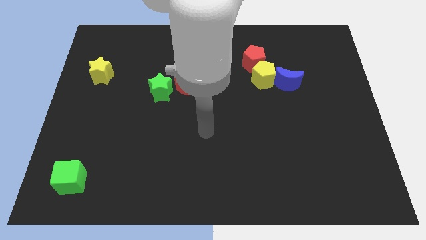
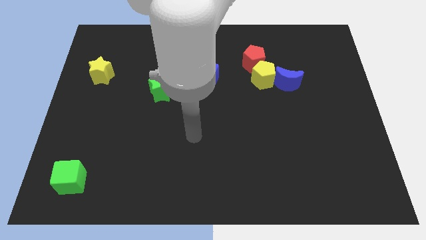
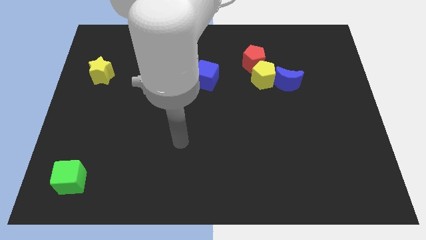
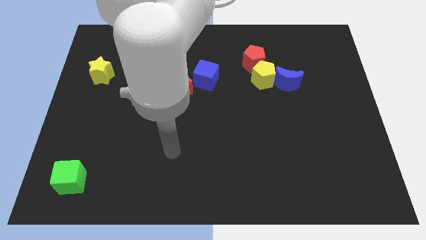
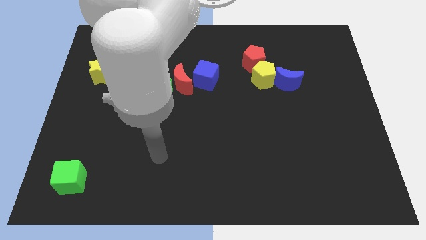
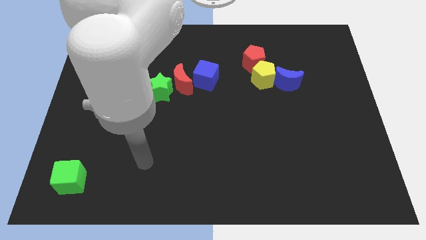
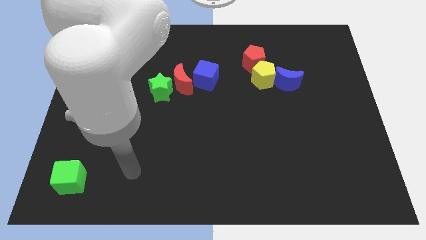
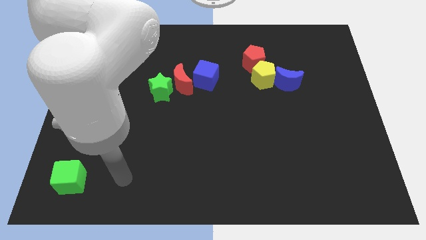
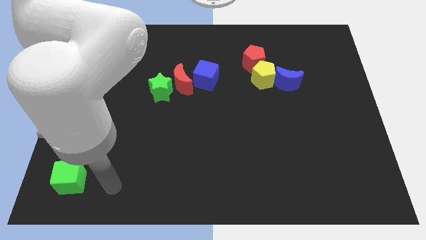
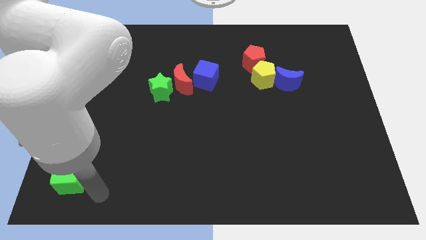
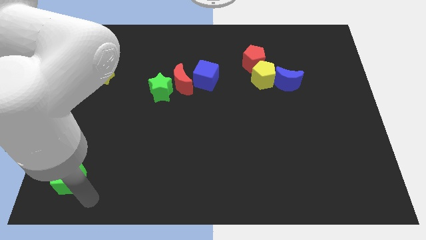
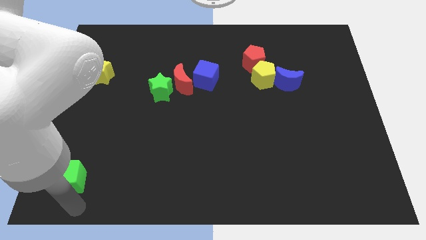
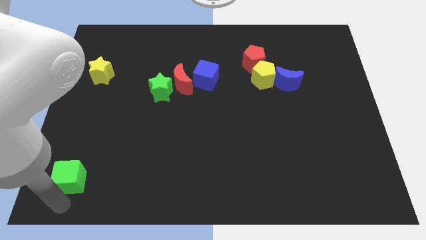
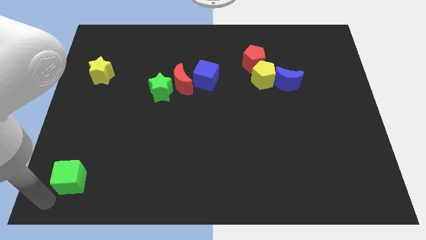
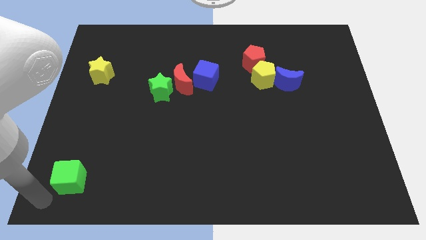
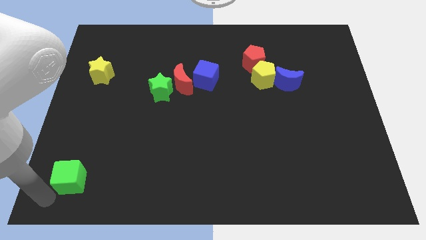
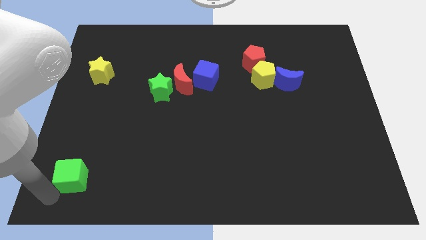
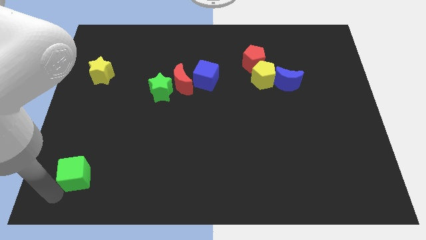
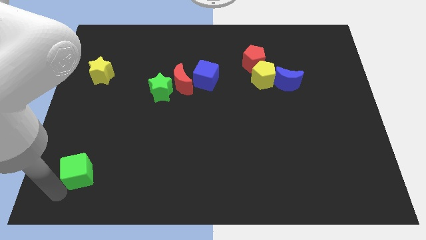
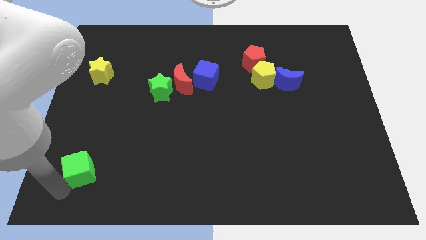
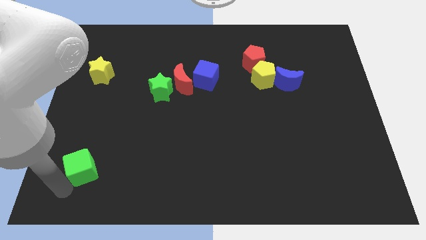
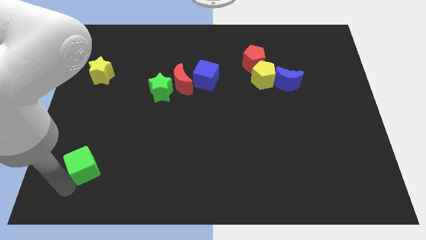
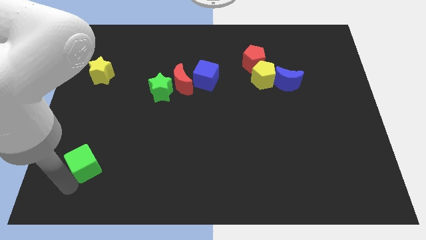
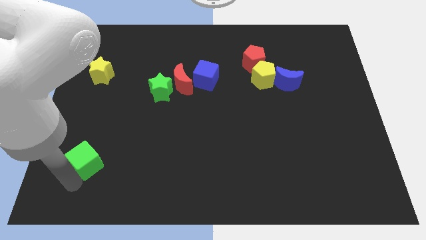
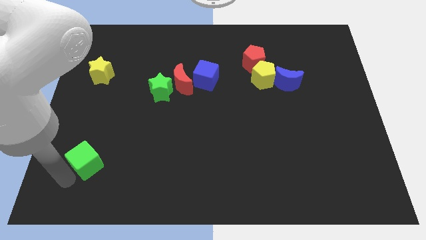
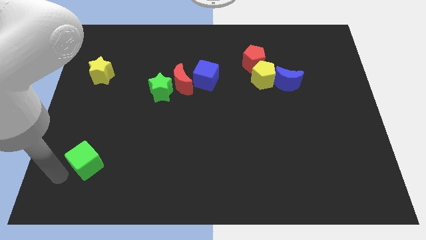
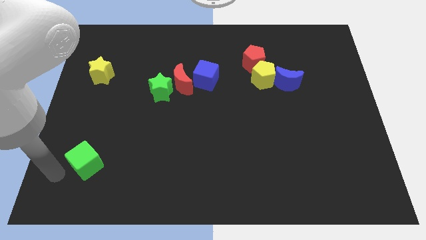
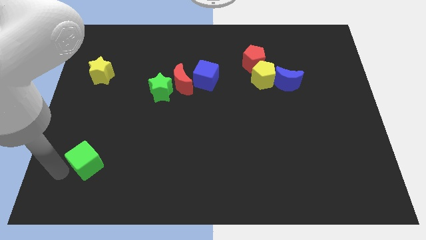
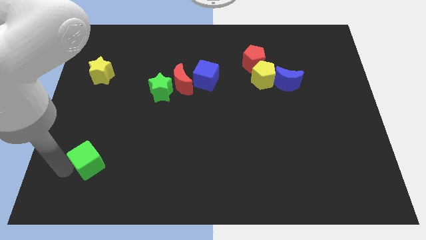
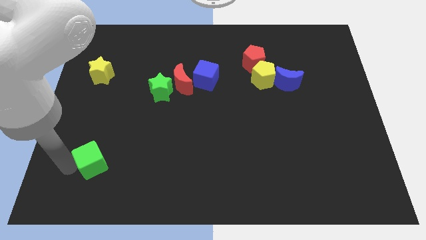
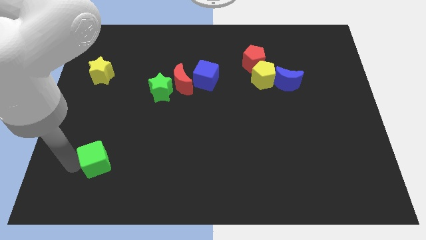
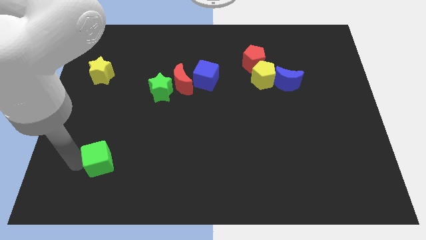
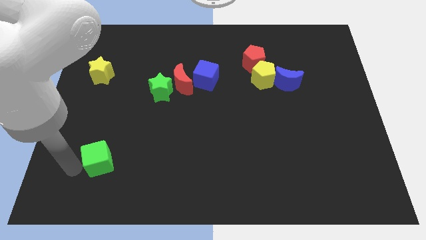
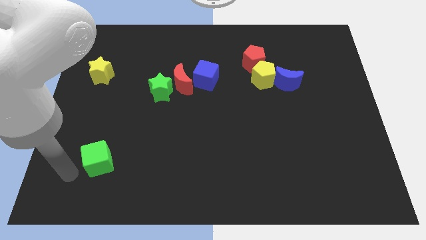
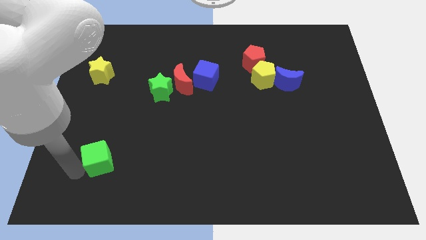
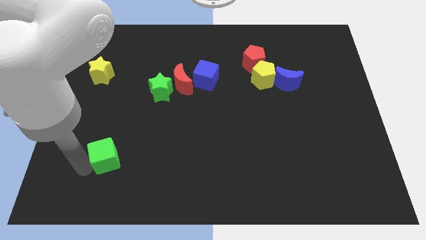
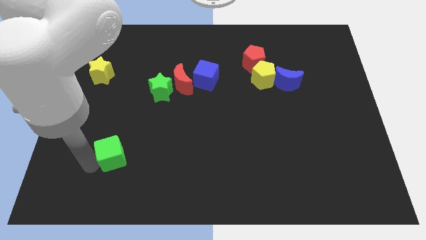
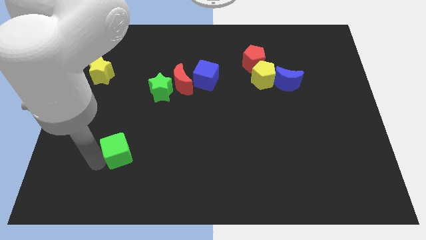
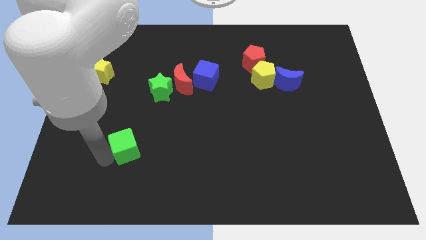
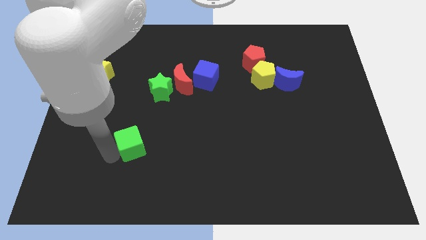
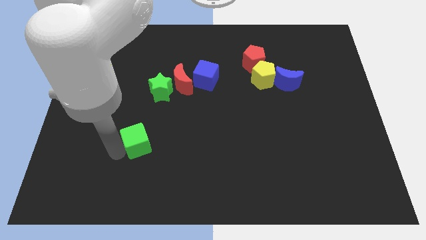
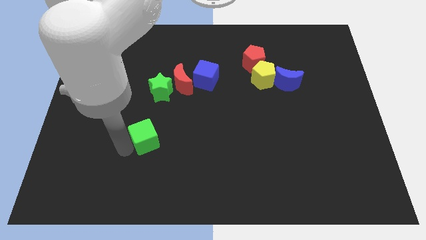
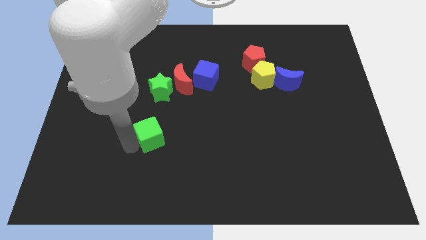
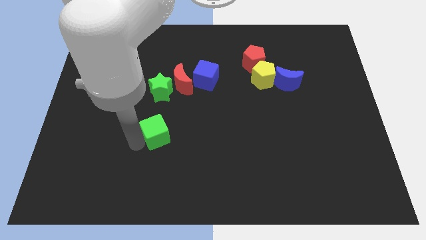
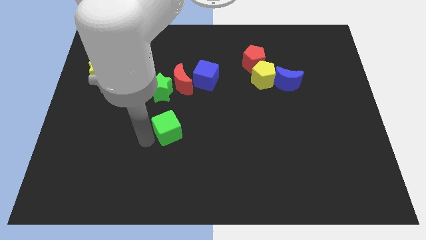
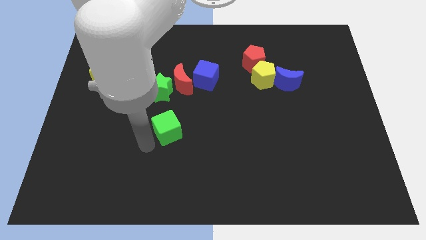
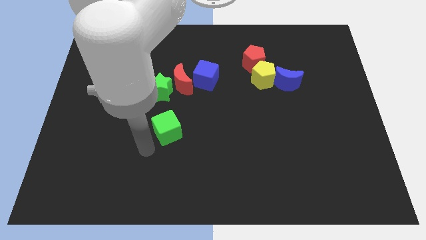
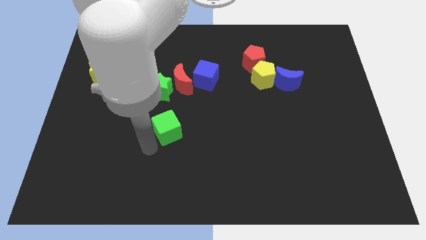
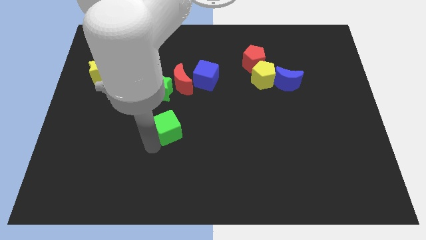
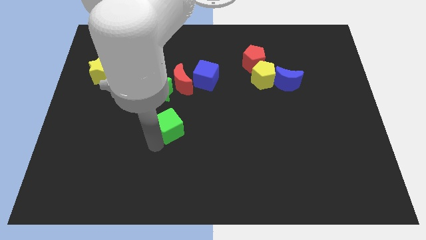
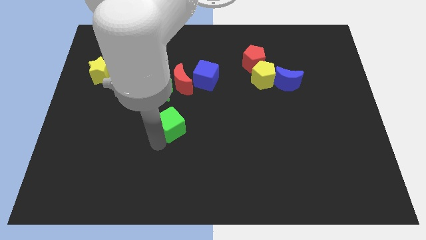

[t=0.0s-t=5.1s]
move the green cube to the center

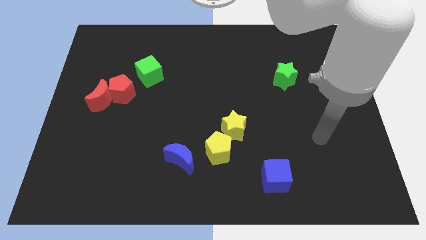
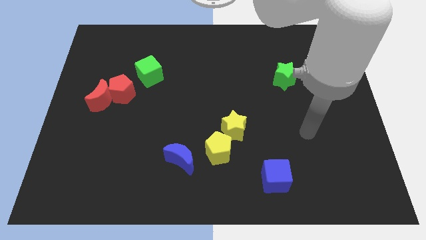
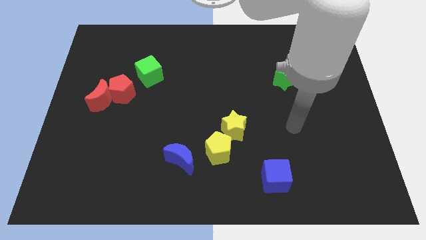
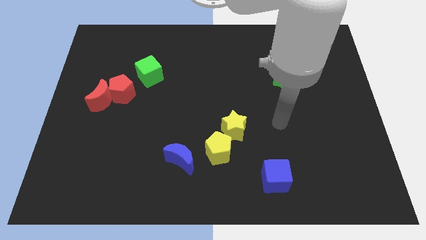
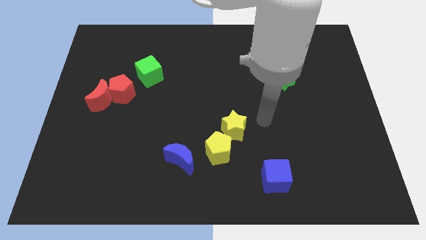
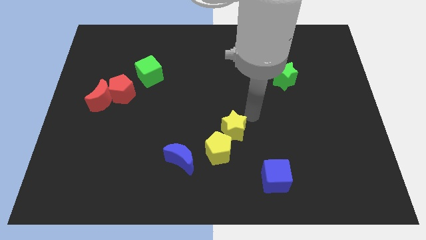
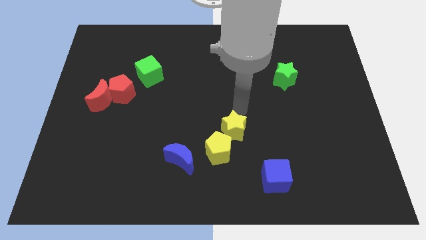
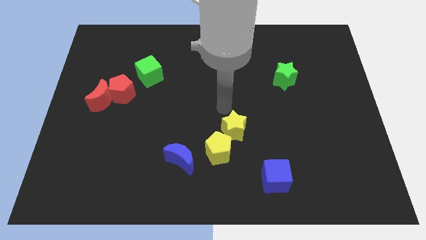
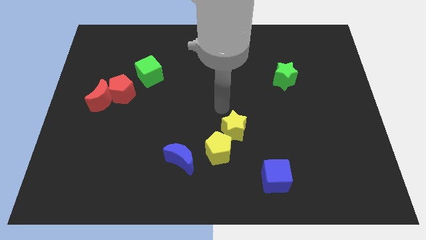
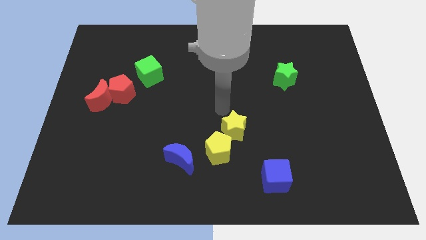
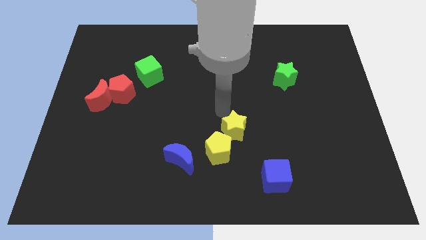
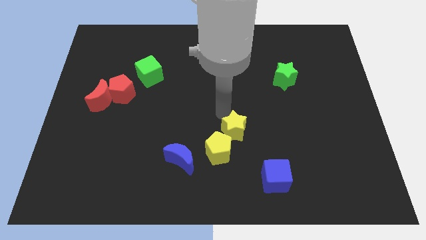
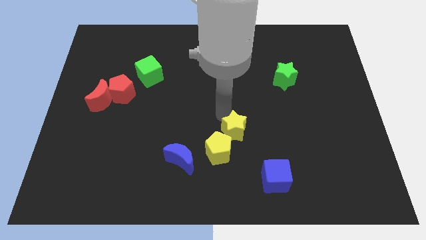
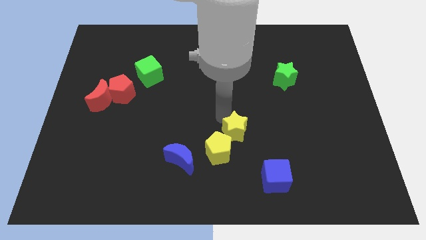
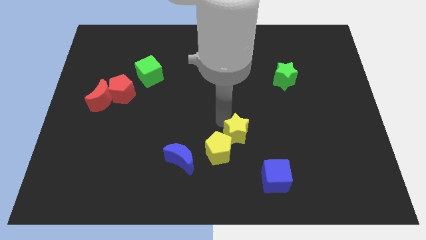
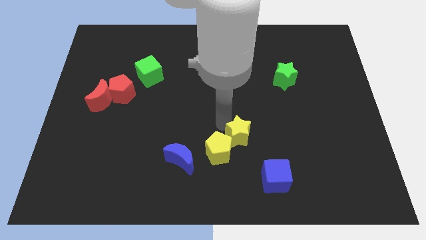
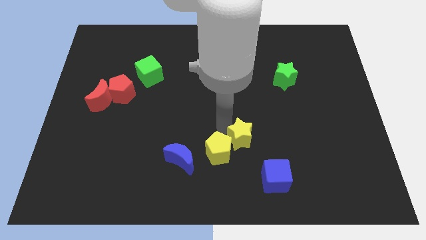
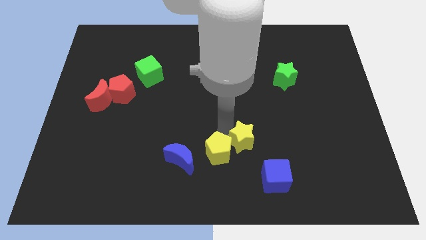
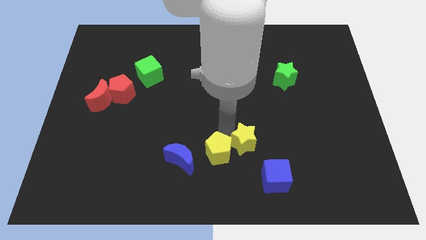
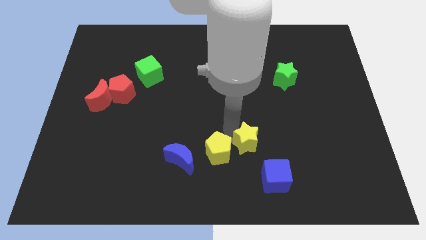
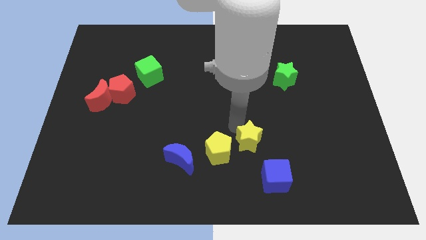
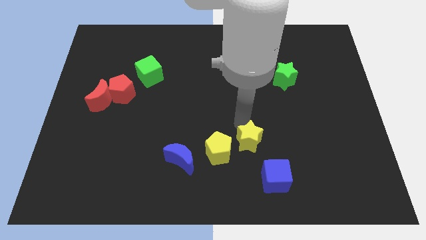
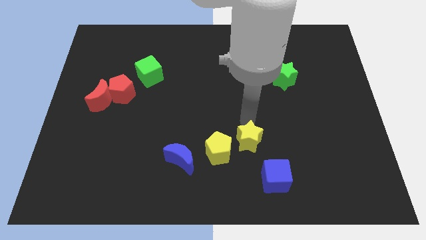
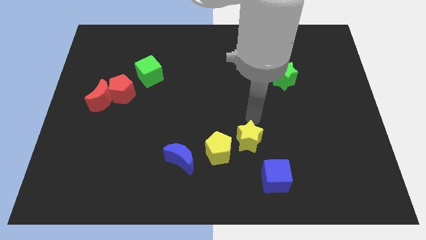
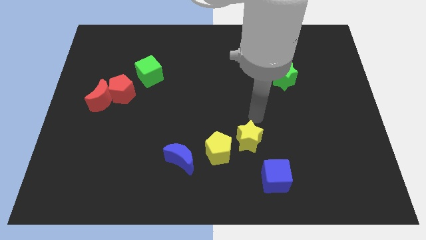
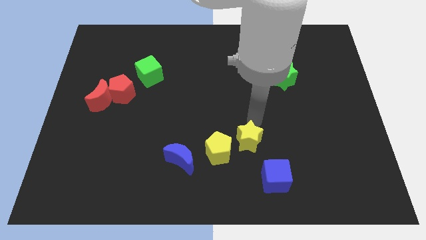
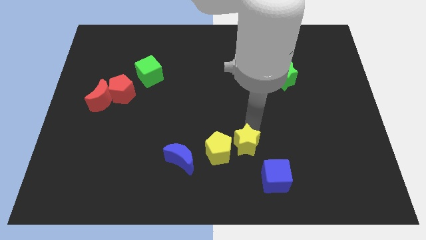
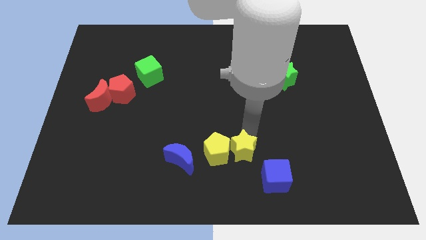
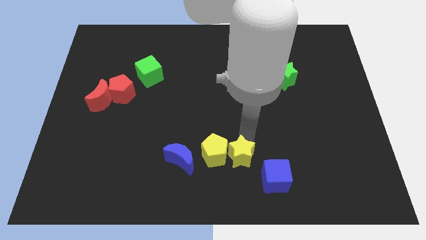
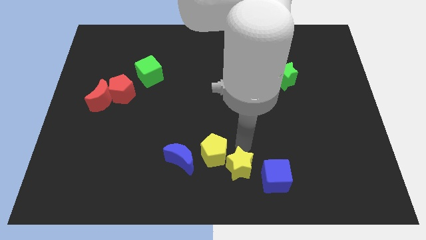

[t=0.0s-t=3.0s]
slide the yellow star to the bottom side
